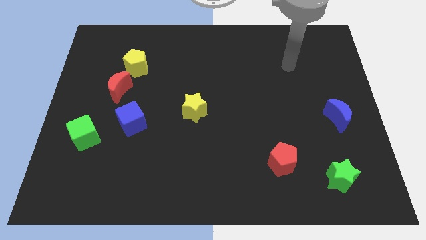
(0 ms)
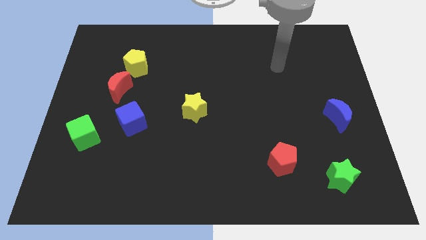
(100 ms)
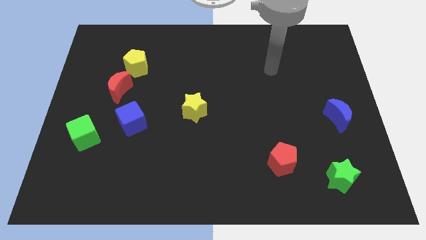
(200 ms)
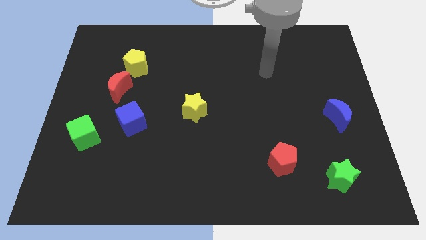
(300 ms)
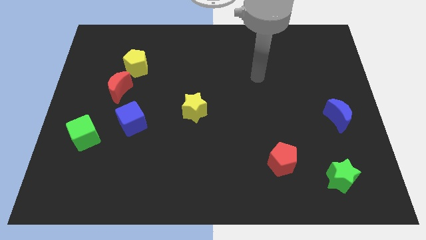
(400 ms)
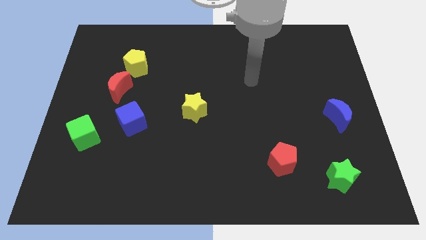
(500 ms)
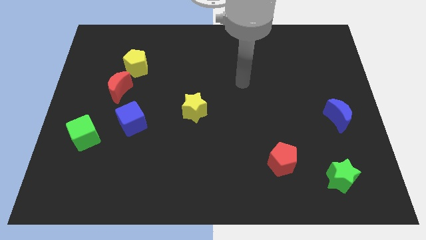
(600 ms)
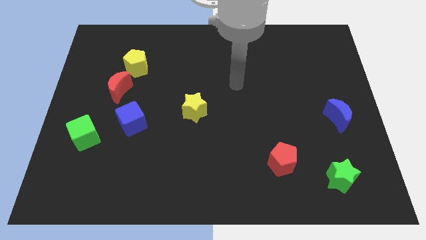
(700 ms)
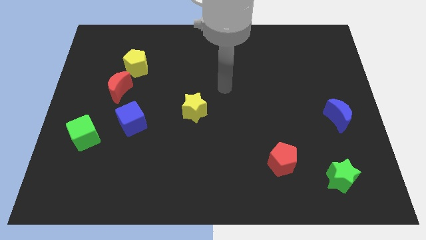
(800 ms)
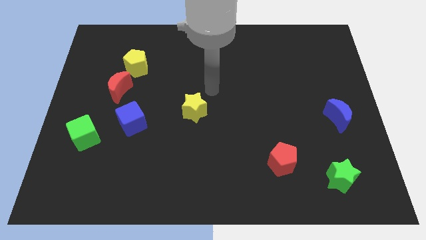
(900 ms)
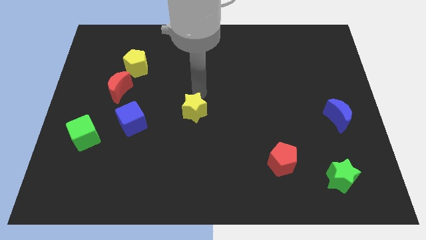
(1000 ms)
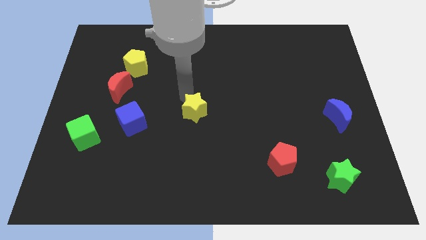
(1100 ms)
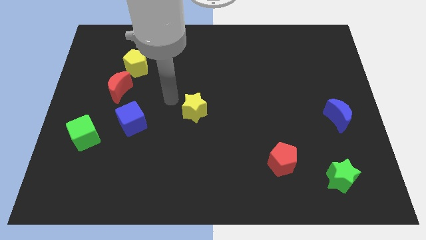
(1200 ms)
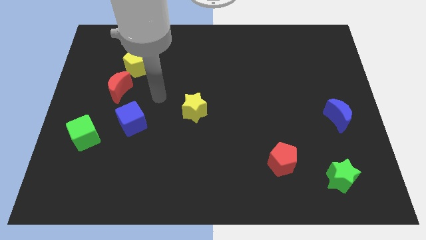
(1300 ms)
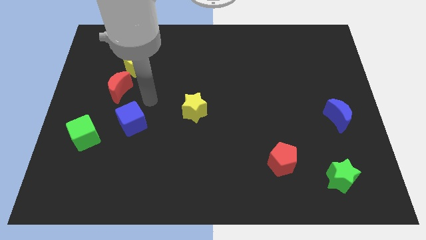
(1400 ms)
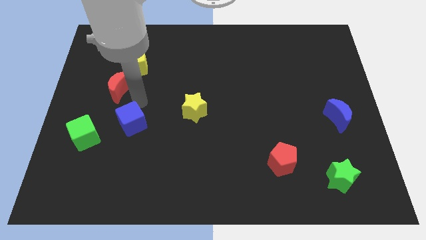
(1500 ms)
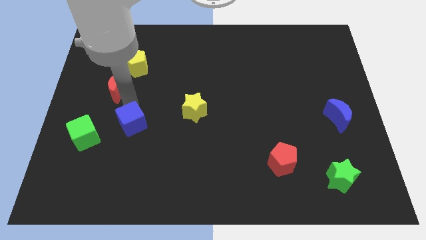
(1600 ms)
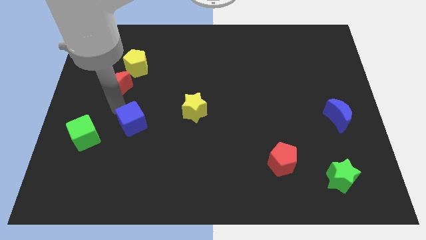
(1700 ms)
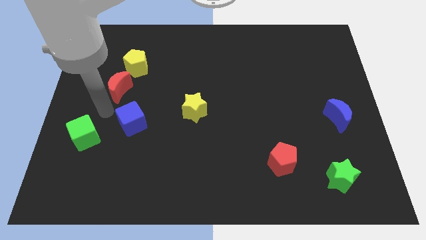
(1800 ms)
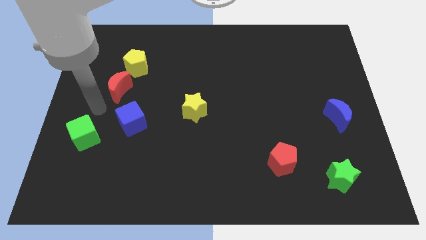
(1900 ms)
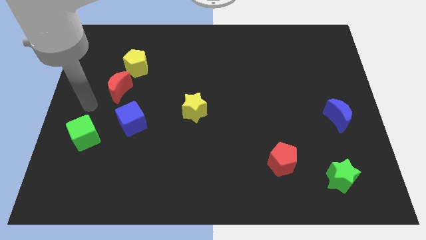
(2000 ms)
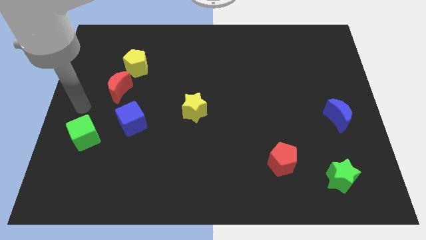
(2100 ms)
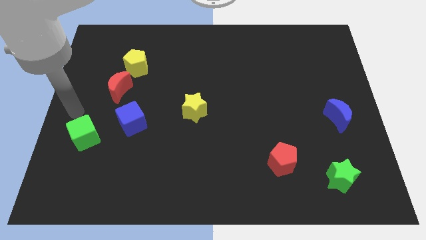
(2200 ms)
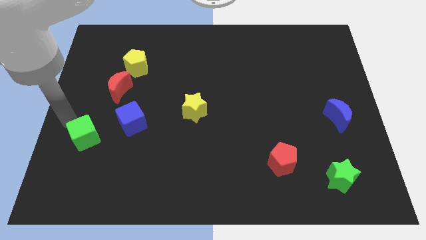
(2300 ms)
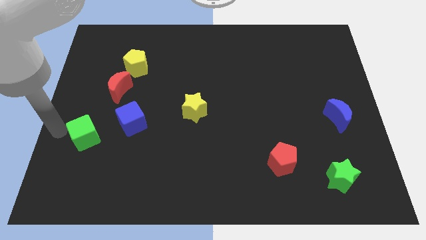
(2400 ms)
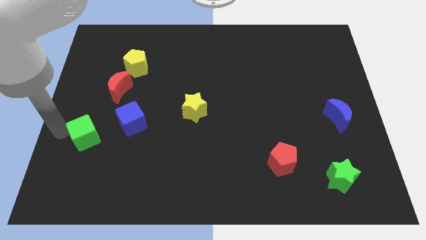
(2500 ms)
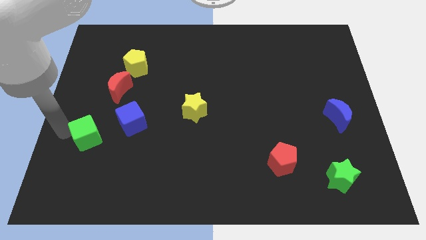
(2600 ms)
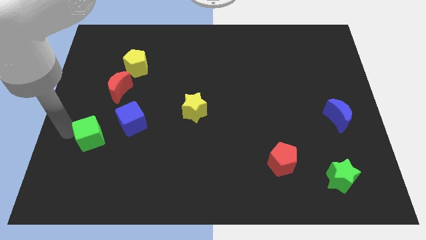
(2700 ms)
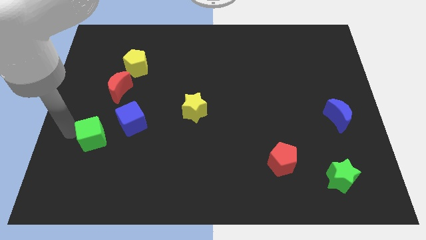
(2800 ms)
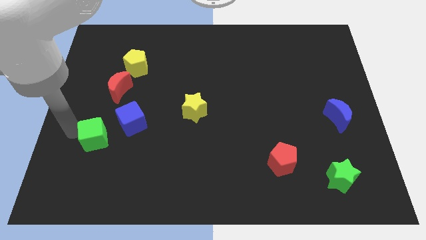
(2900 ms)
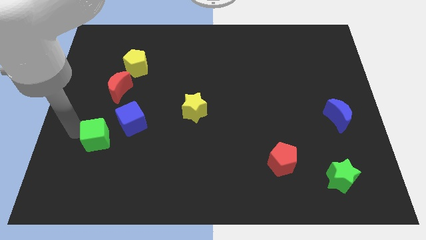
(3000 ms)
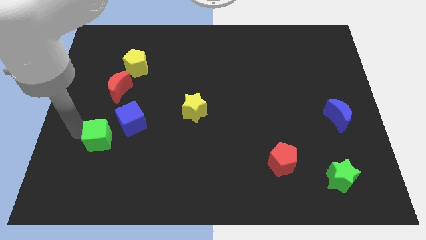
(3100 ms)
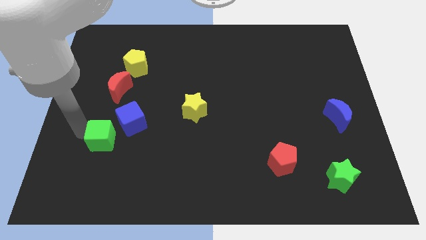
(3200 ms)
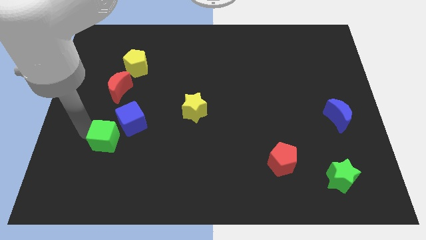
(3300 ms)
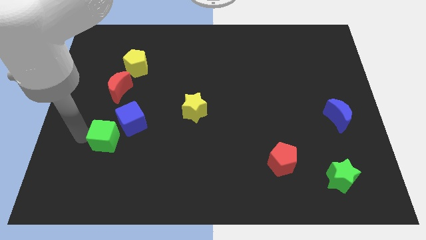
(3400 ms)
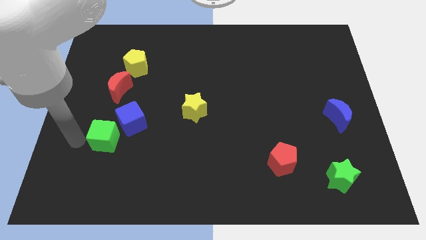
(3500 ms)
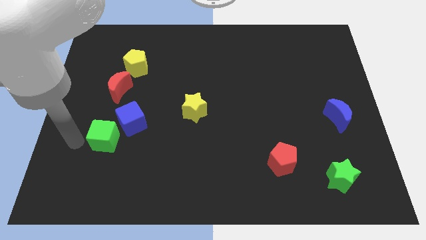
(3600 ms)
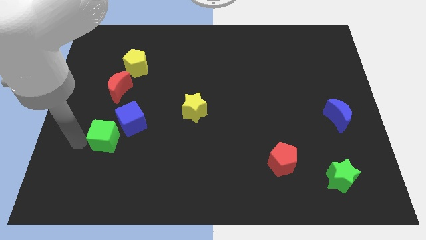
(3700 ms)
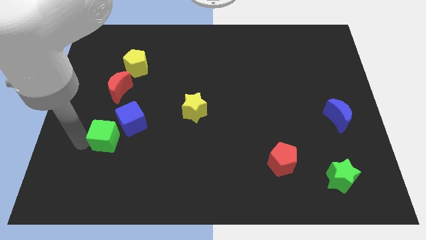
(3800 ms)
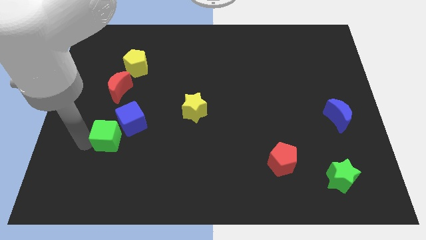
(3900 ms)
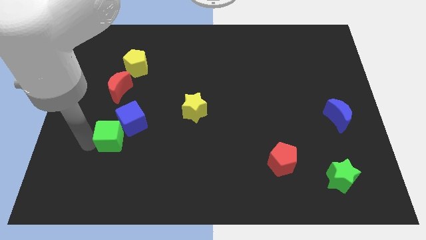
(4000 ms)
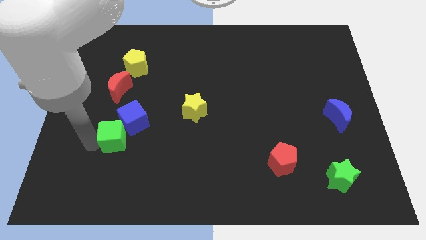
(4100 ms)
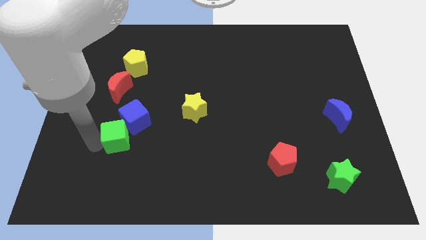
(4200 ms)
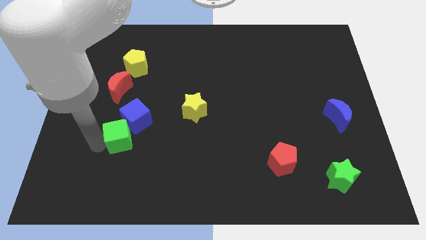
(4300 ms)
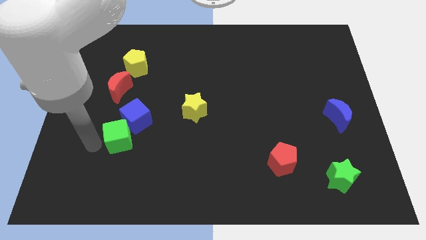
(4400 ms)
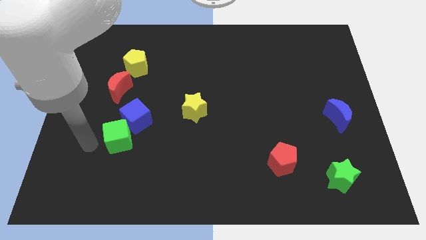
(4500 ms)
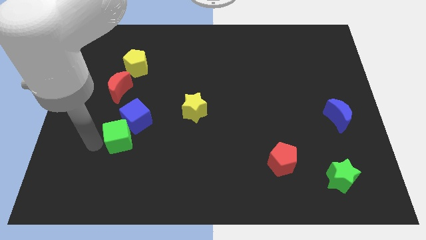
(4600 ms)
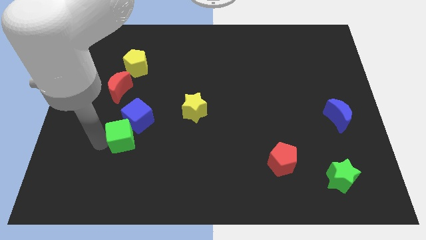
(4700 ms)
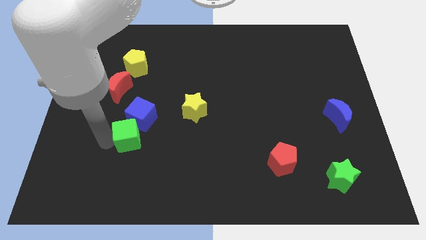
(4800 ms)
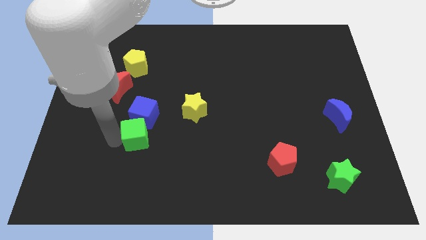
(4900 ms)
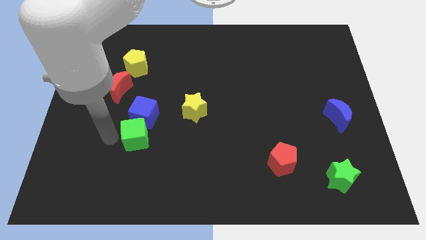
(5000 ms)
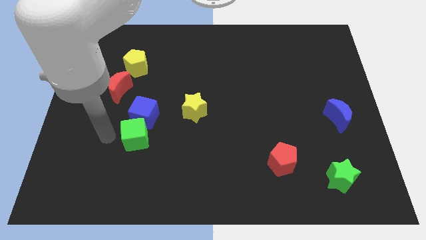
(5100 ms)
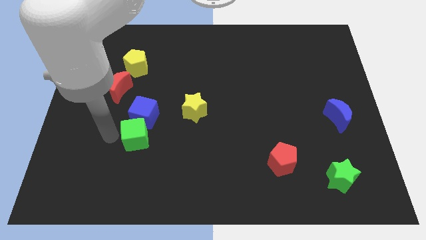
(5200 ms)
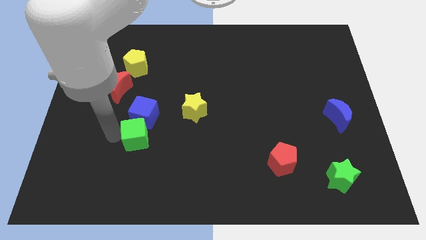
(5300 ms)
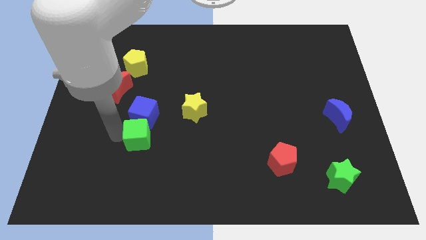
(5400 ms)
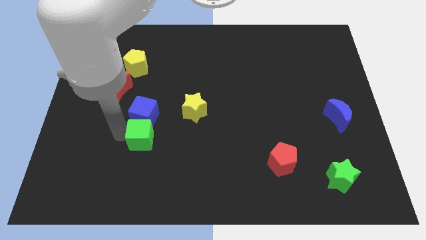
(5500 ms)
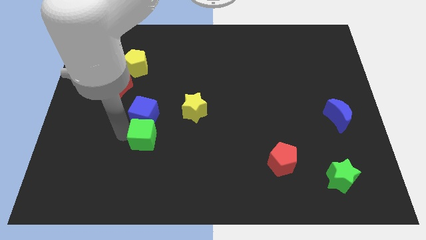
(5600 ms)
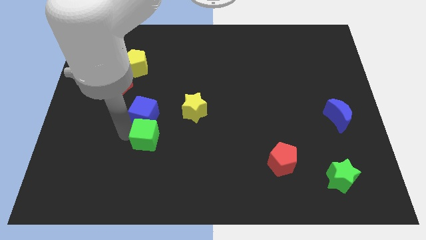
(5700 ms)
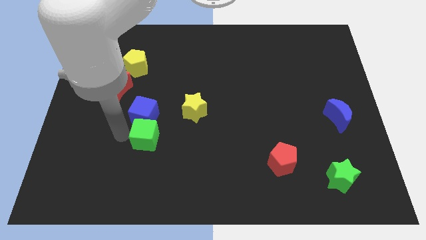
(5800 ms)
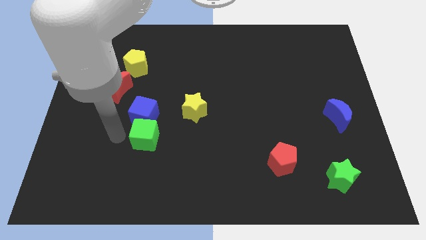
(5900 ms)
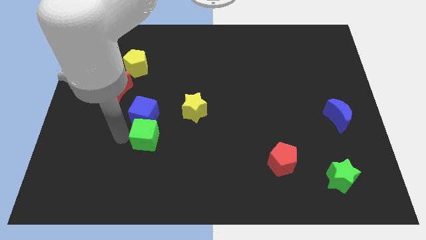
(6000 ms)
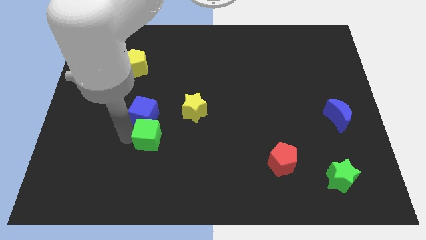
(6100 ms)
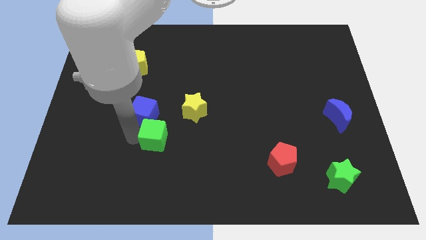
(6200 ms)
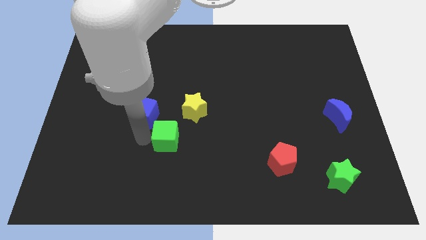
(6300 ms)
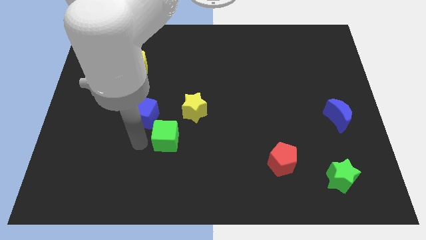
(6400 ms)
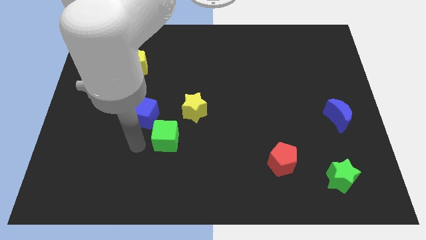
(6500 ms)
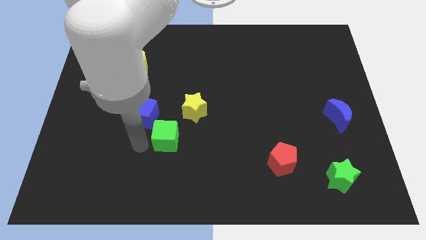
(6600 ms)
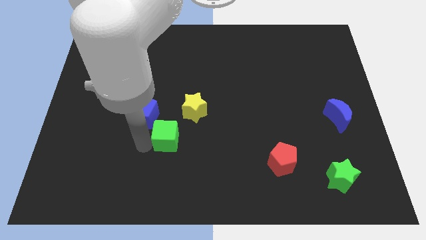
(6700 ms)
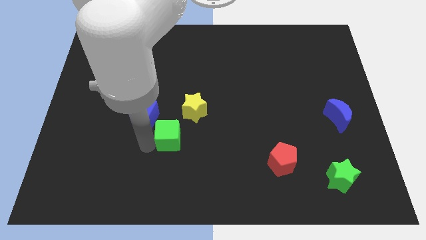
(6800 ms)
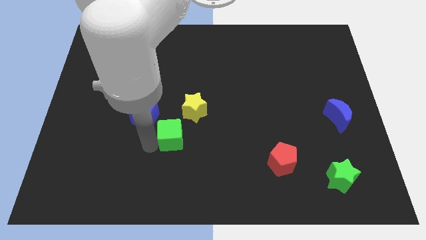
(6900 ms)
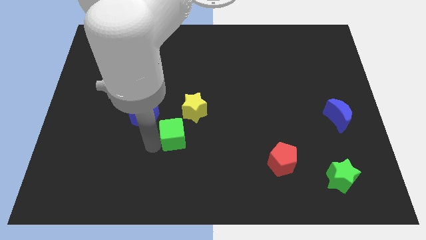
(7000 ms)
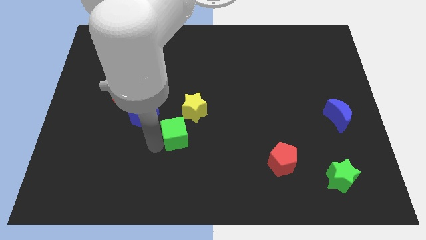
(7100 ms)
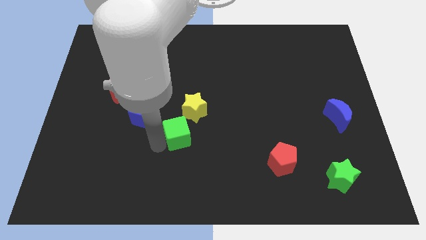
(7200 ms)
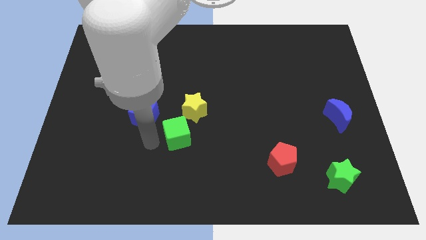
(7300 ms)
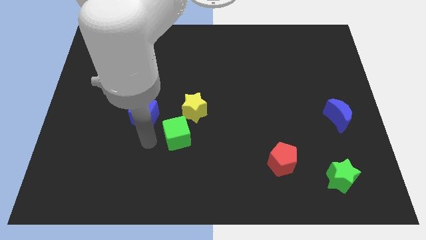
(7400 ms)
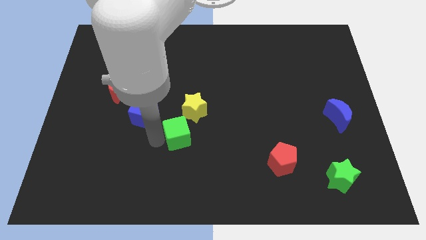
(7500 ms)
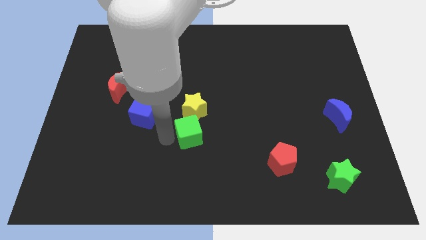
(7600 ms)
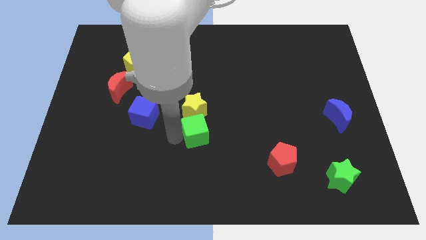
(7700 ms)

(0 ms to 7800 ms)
push the green cube diagonally down and to the right of the yellow star

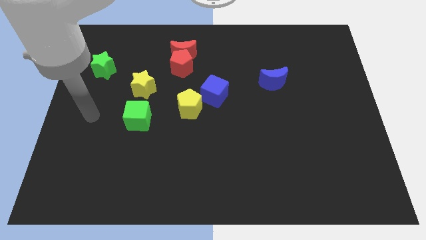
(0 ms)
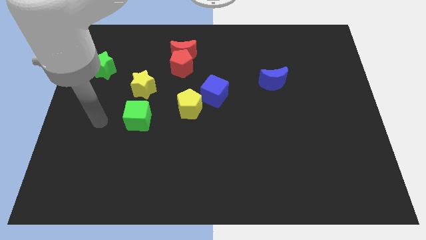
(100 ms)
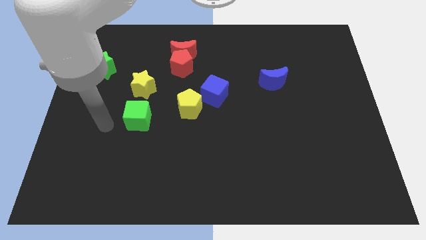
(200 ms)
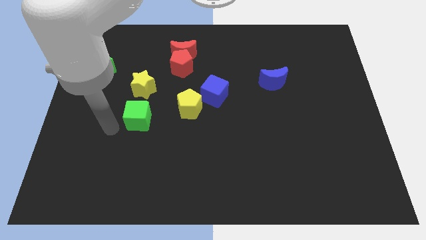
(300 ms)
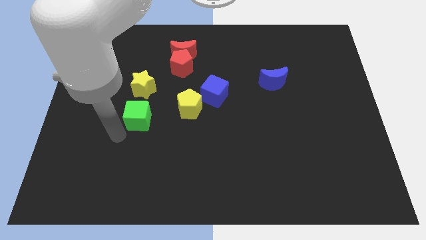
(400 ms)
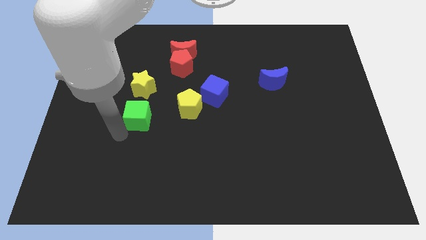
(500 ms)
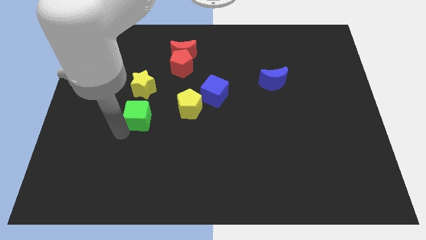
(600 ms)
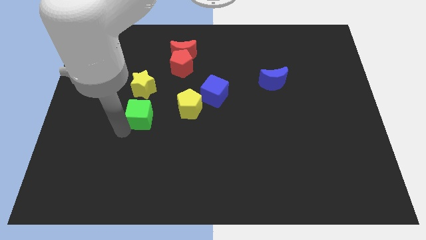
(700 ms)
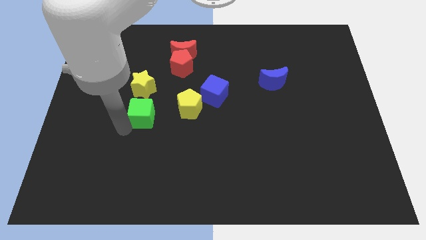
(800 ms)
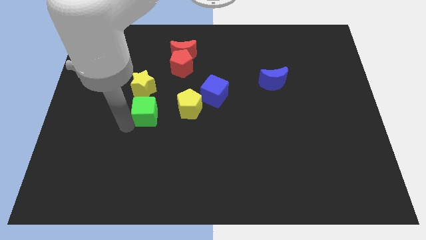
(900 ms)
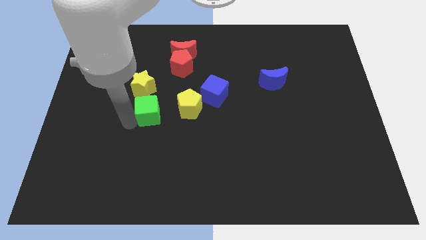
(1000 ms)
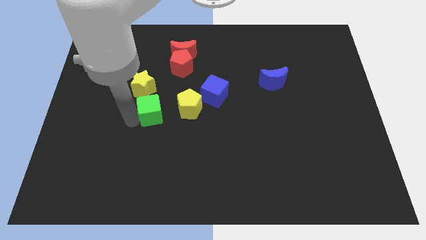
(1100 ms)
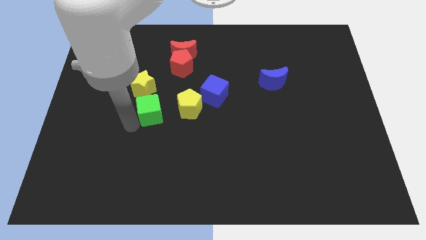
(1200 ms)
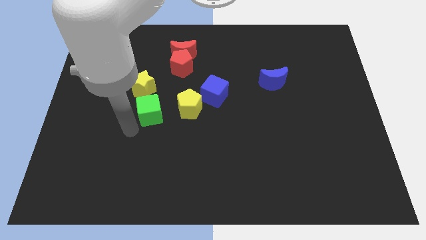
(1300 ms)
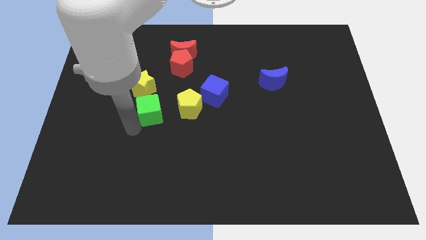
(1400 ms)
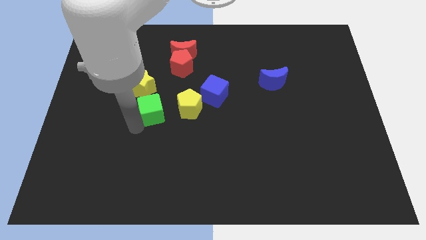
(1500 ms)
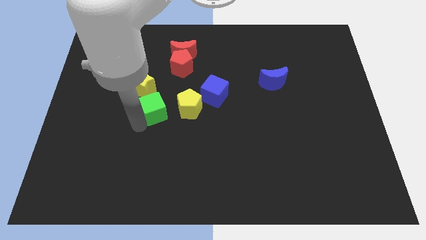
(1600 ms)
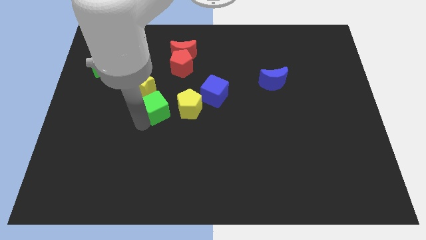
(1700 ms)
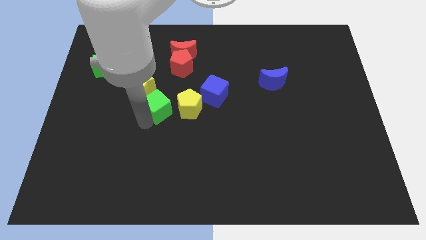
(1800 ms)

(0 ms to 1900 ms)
slide the green cube just left of the blue cube
